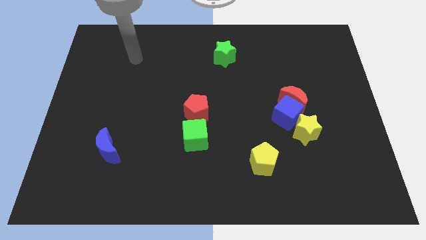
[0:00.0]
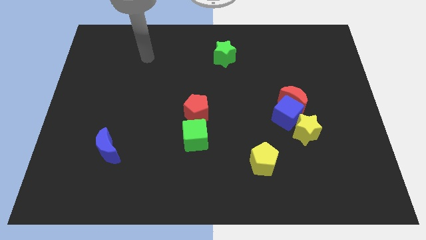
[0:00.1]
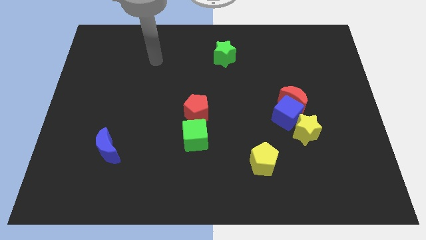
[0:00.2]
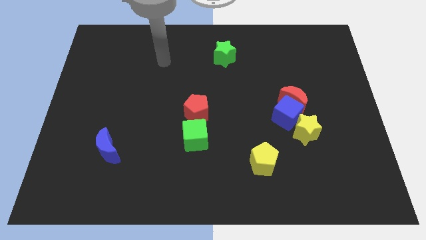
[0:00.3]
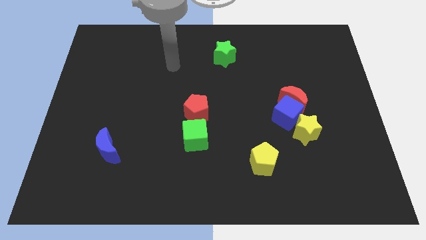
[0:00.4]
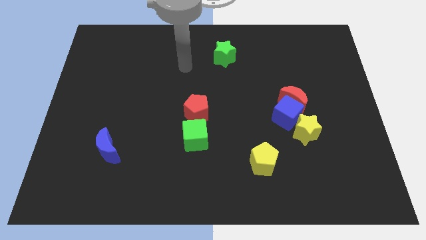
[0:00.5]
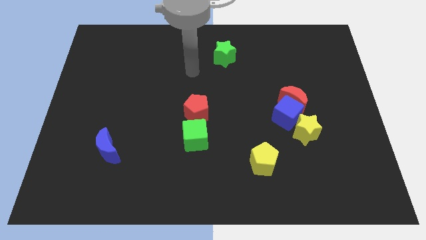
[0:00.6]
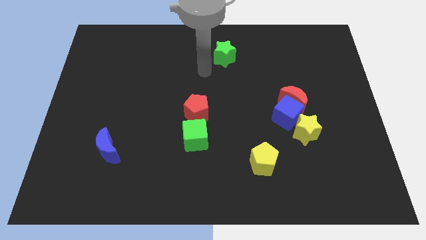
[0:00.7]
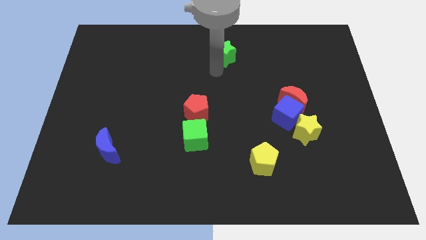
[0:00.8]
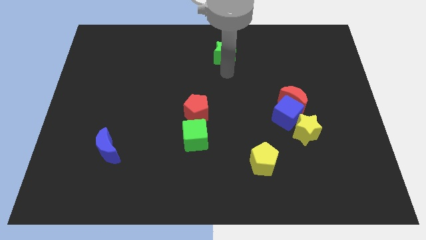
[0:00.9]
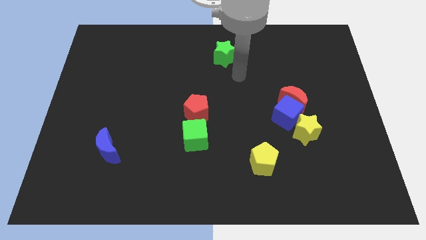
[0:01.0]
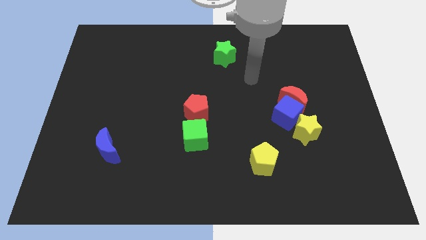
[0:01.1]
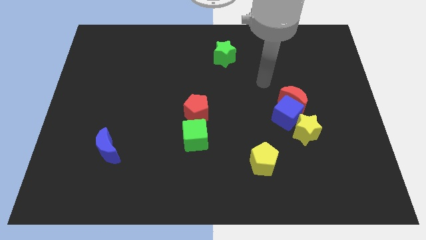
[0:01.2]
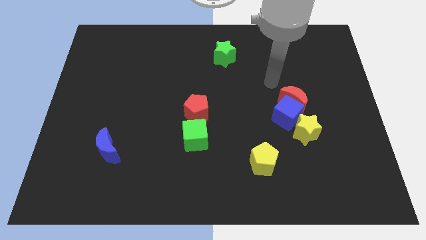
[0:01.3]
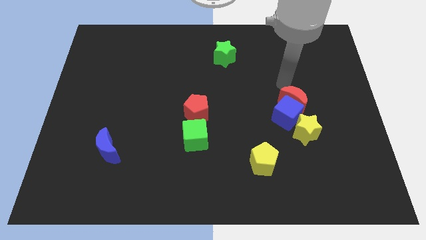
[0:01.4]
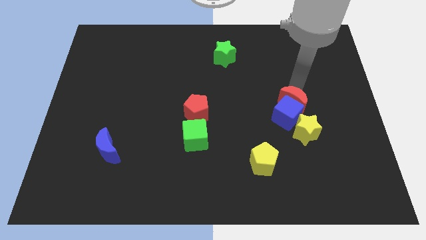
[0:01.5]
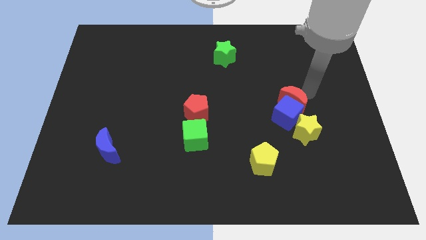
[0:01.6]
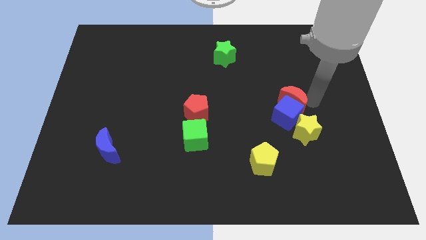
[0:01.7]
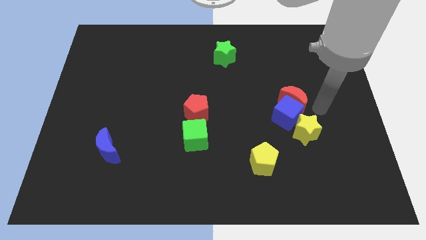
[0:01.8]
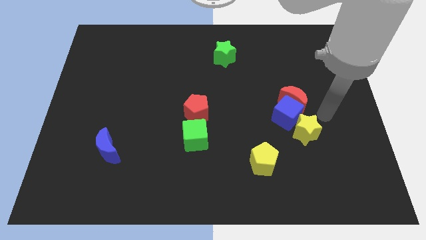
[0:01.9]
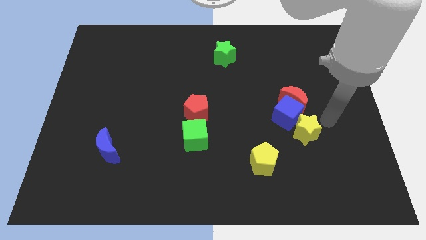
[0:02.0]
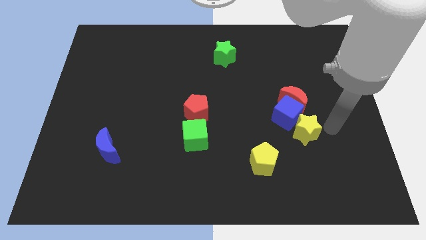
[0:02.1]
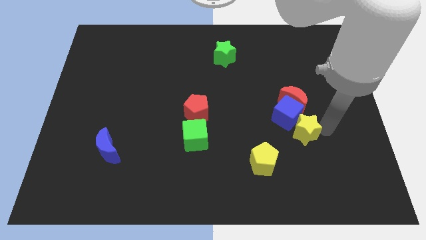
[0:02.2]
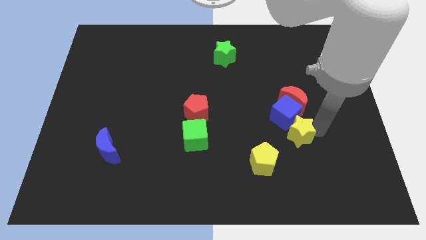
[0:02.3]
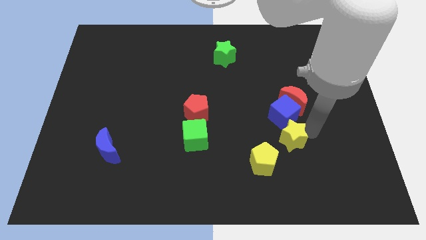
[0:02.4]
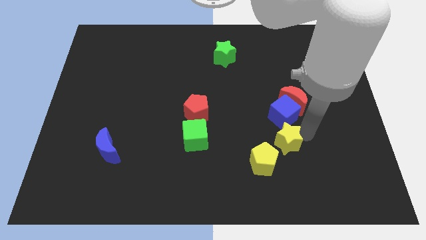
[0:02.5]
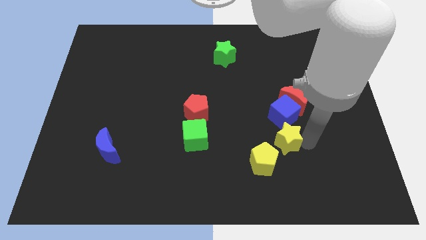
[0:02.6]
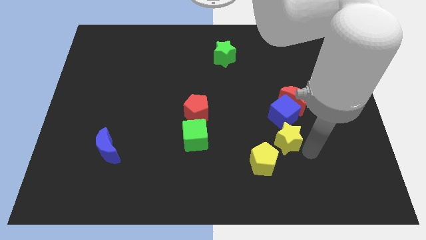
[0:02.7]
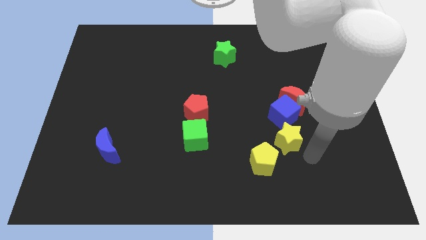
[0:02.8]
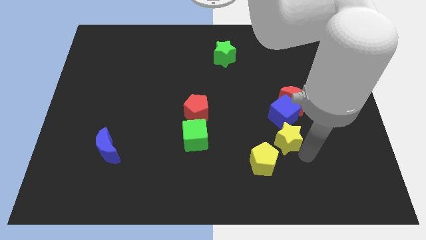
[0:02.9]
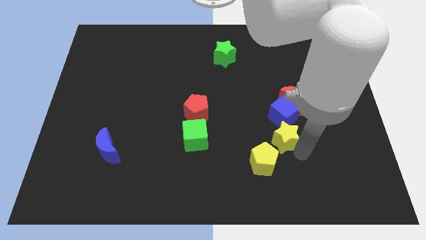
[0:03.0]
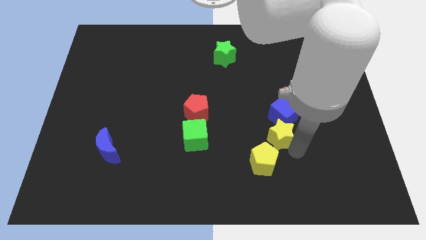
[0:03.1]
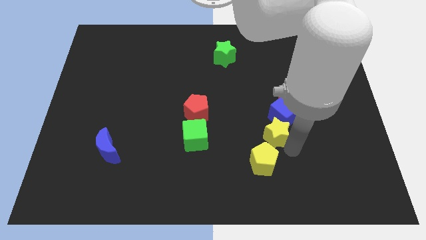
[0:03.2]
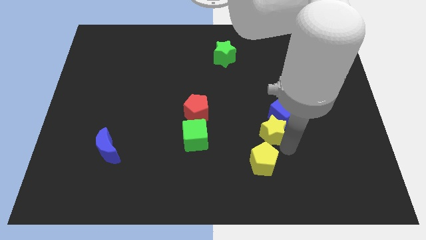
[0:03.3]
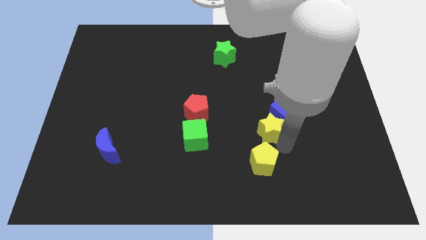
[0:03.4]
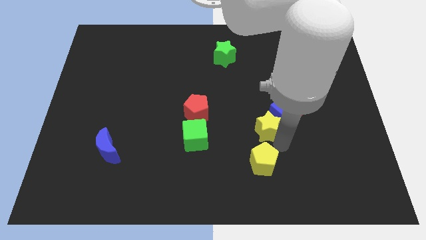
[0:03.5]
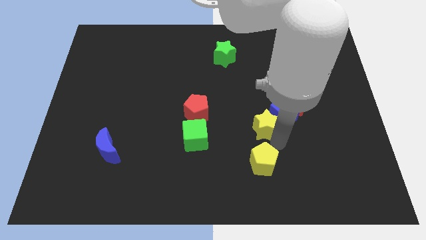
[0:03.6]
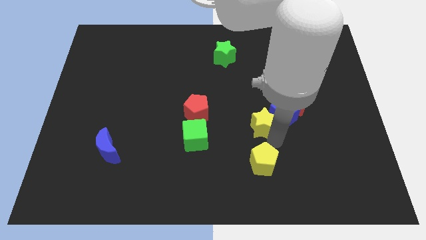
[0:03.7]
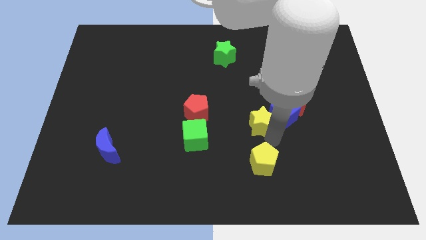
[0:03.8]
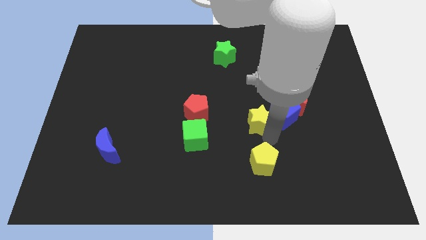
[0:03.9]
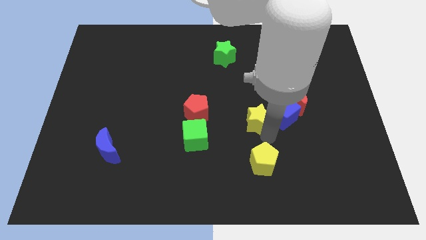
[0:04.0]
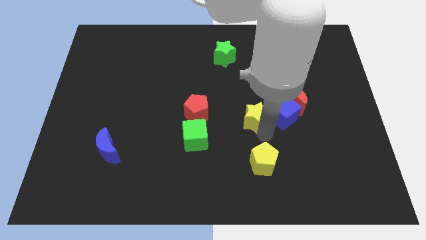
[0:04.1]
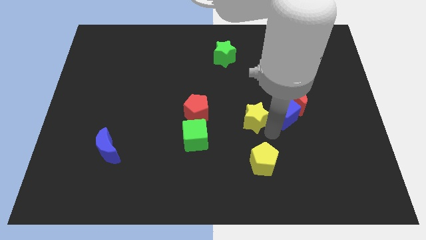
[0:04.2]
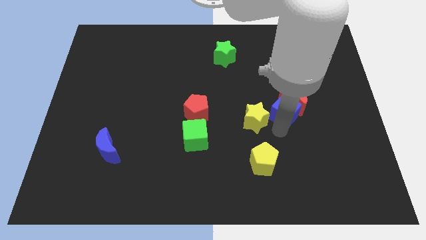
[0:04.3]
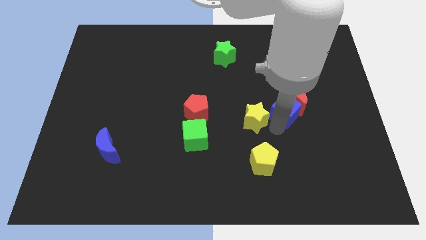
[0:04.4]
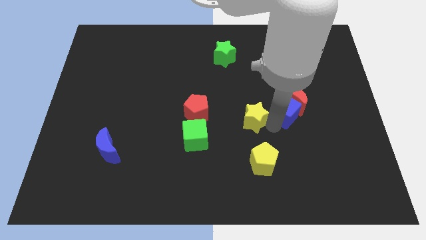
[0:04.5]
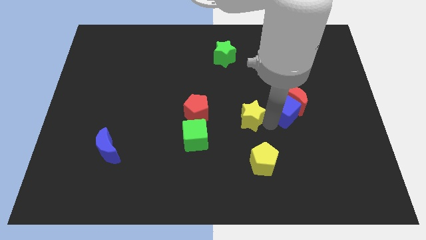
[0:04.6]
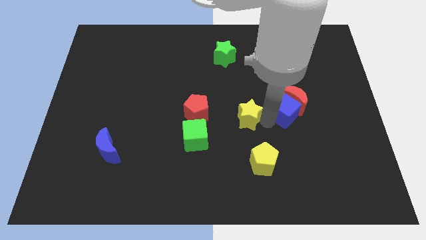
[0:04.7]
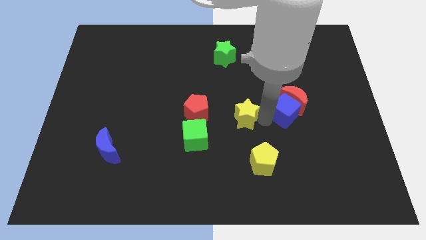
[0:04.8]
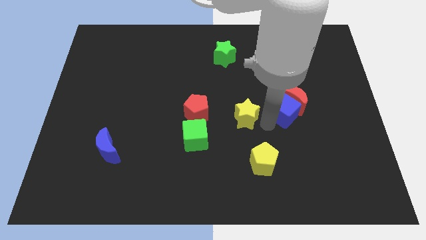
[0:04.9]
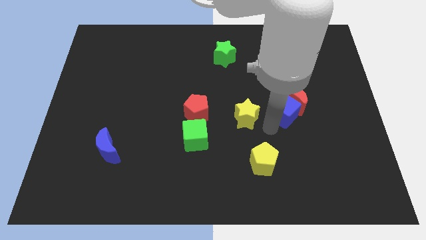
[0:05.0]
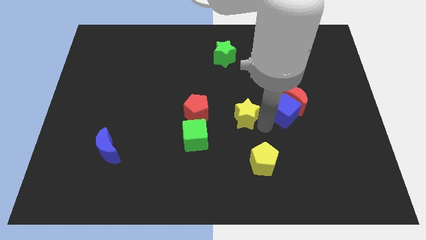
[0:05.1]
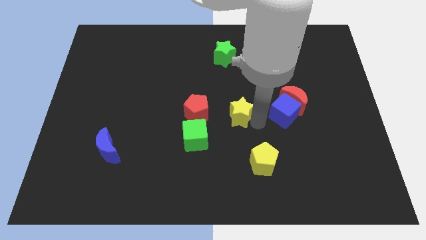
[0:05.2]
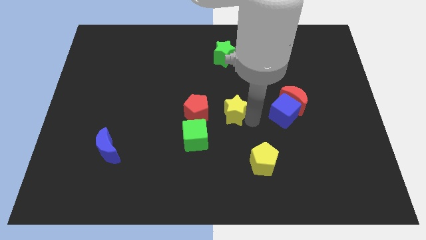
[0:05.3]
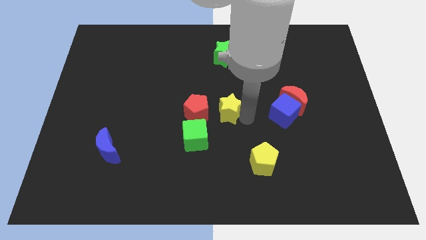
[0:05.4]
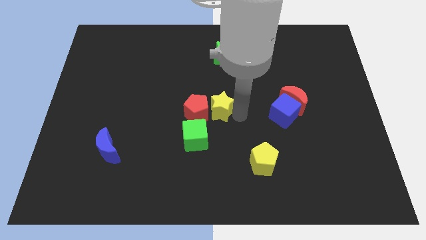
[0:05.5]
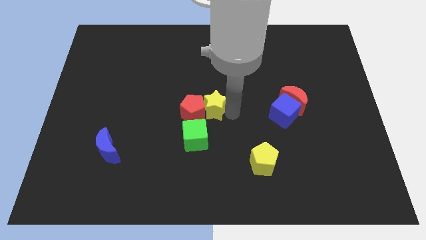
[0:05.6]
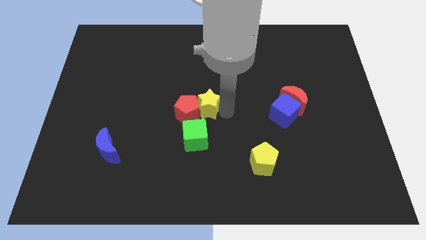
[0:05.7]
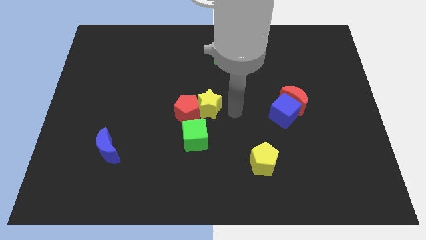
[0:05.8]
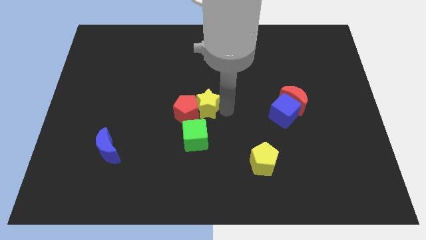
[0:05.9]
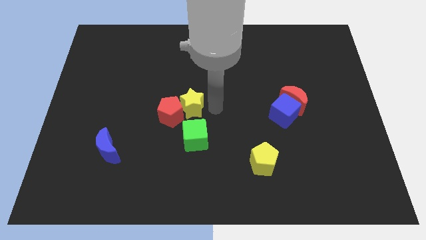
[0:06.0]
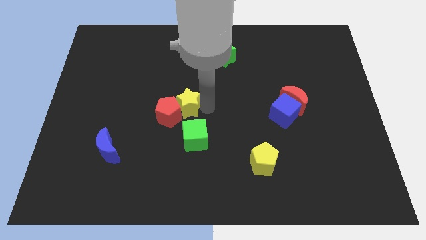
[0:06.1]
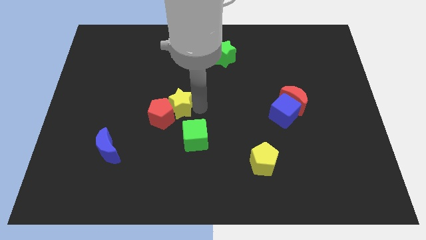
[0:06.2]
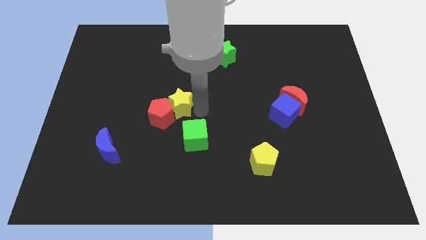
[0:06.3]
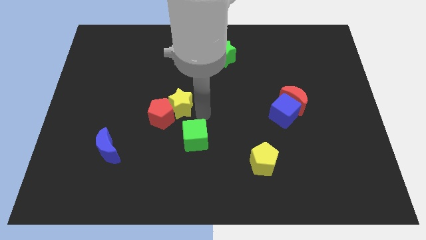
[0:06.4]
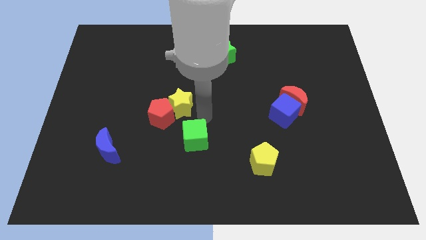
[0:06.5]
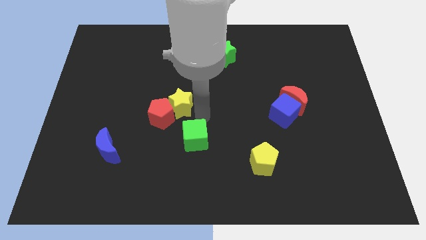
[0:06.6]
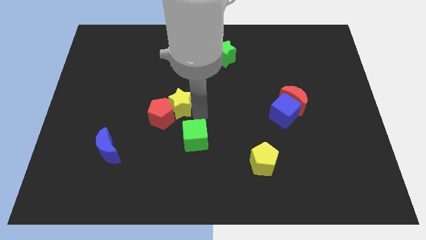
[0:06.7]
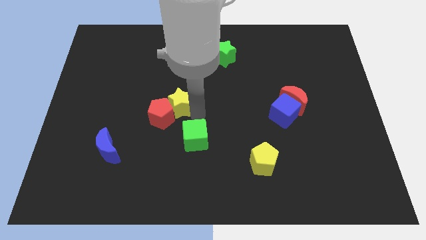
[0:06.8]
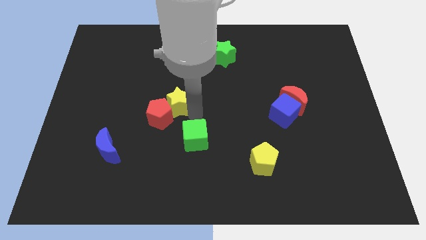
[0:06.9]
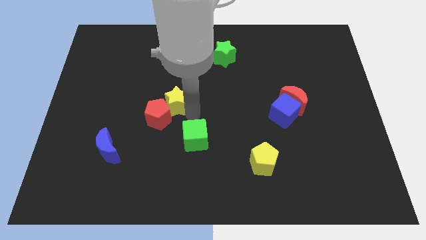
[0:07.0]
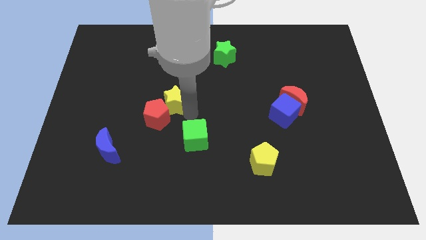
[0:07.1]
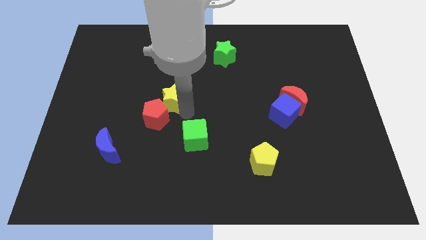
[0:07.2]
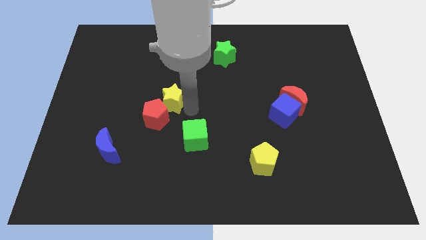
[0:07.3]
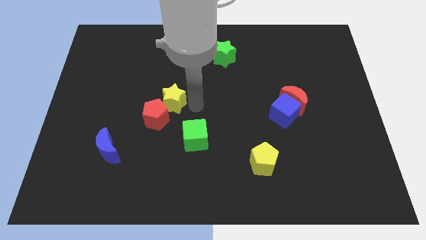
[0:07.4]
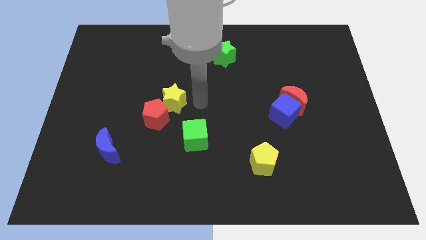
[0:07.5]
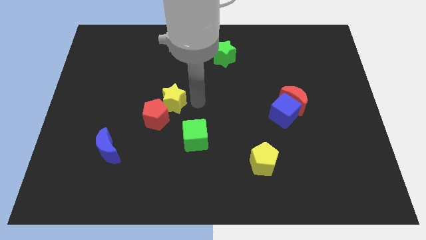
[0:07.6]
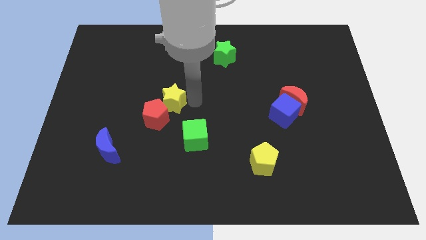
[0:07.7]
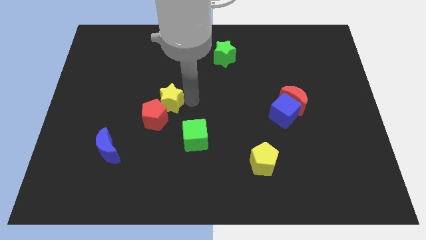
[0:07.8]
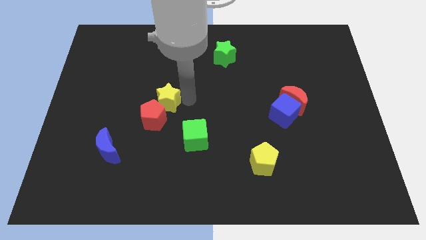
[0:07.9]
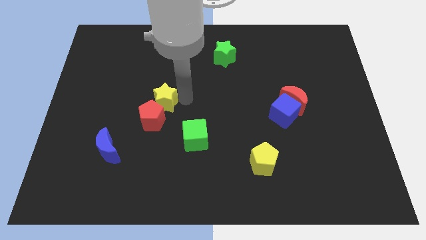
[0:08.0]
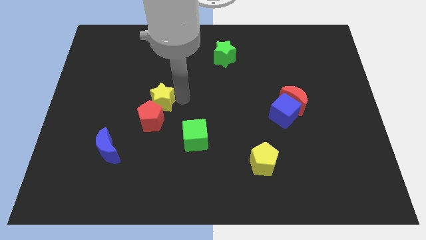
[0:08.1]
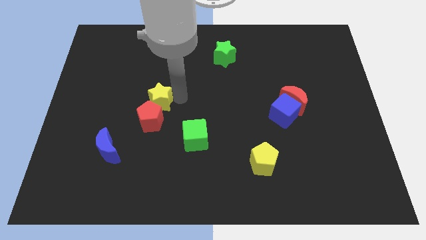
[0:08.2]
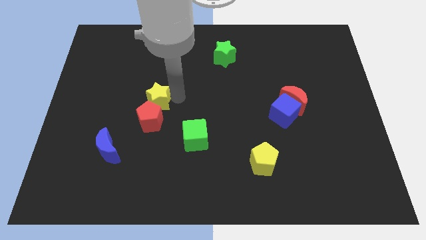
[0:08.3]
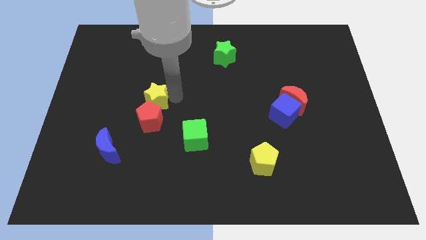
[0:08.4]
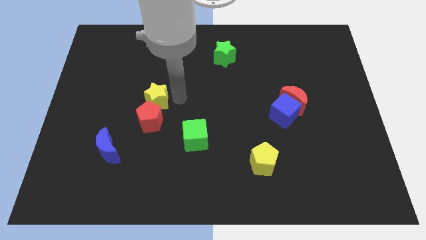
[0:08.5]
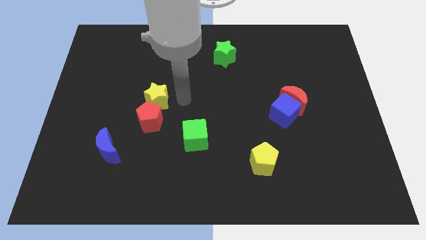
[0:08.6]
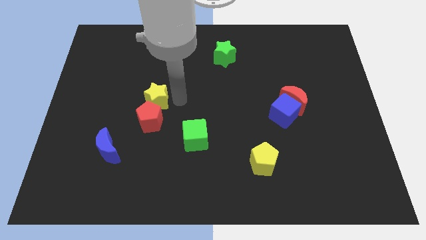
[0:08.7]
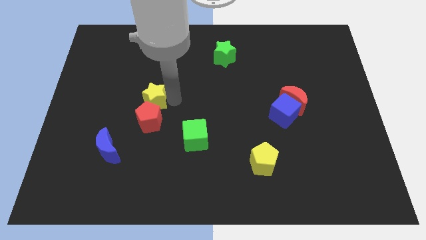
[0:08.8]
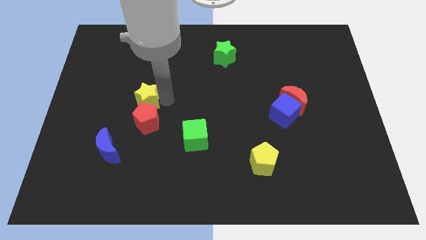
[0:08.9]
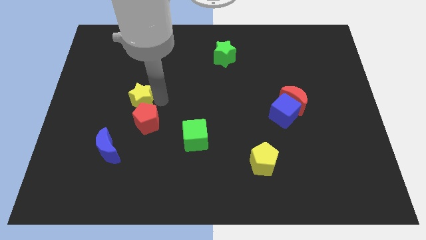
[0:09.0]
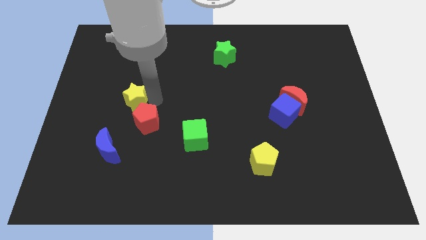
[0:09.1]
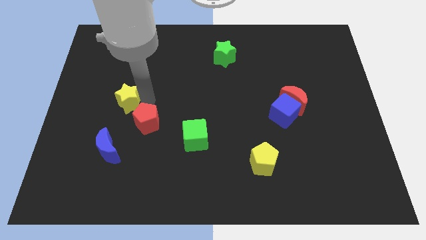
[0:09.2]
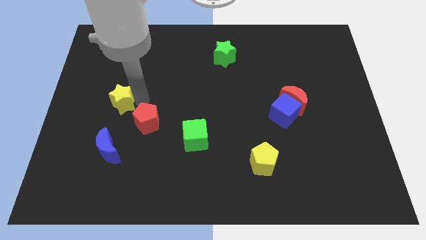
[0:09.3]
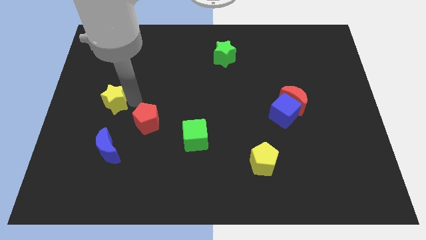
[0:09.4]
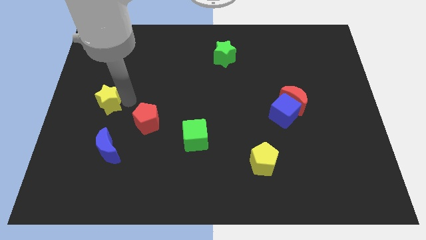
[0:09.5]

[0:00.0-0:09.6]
move the yellow star to the left side of the board
